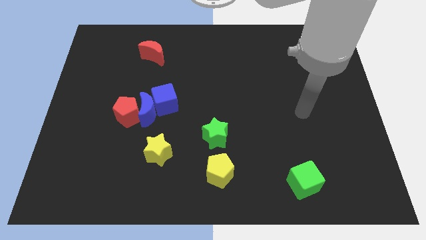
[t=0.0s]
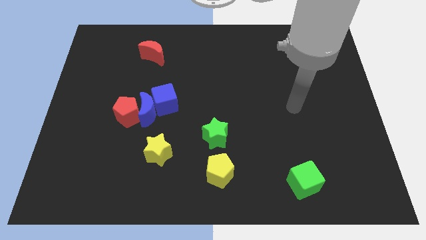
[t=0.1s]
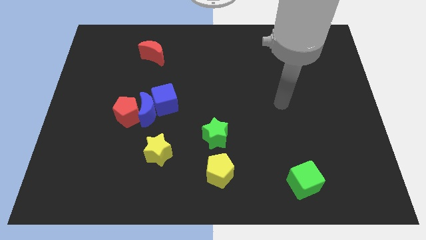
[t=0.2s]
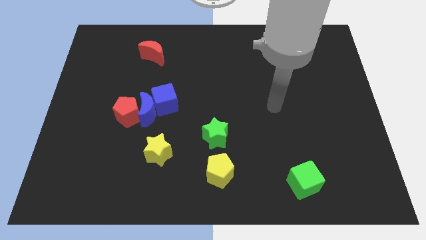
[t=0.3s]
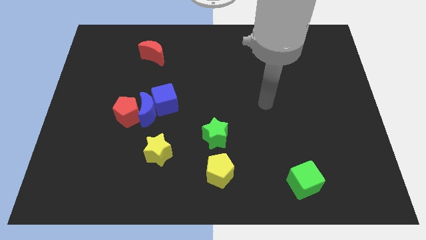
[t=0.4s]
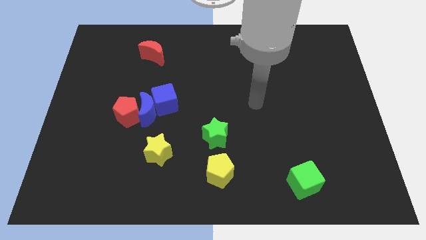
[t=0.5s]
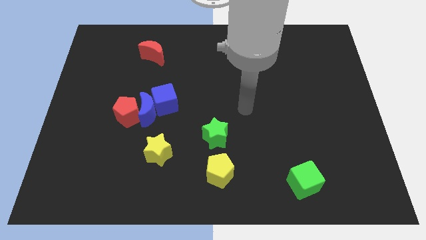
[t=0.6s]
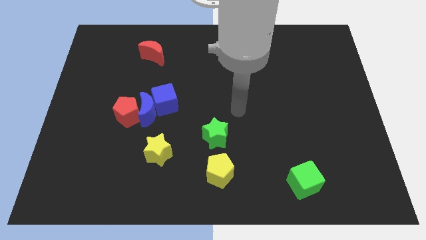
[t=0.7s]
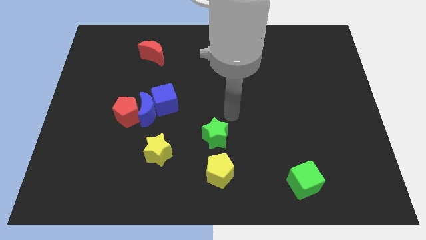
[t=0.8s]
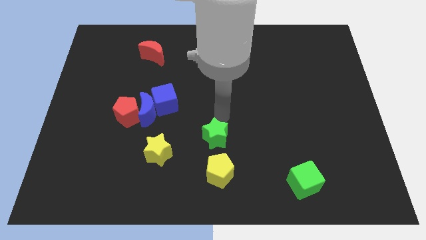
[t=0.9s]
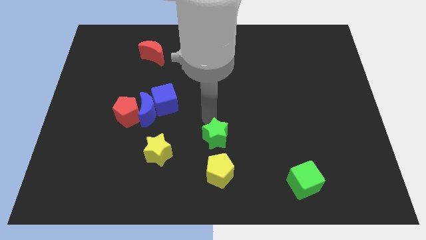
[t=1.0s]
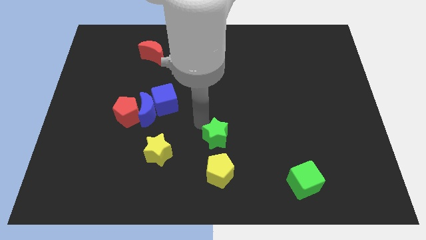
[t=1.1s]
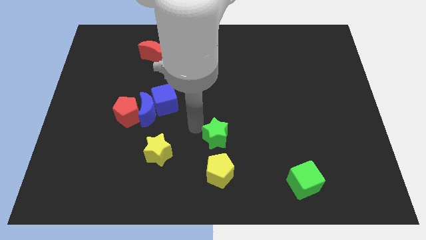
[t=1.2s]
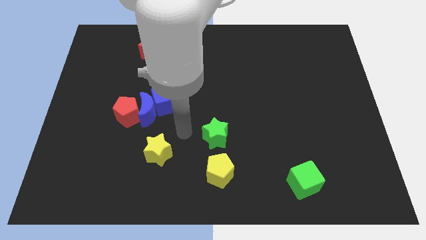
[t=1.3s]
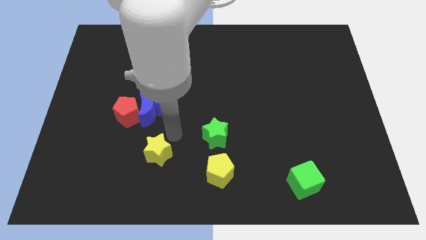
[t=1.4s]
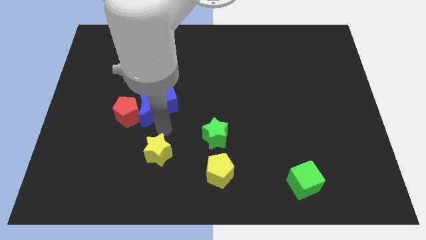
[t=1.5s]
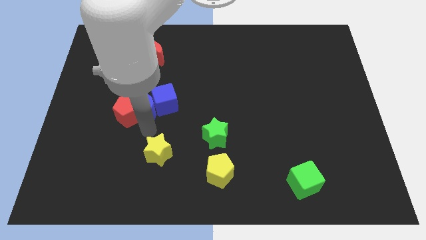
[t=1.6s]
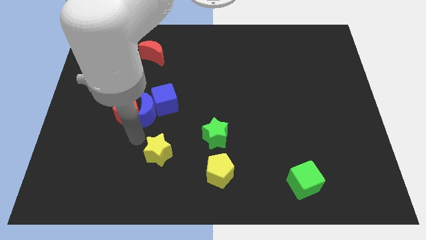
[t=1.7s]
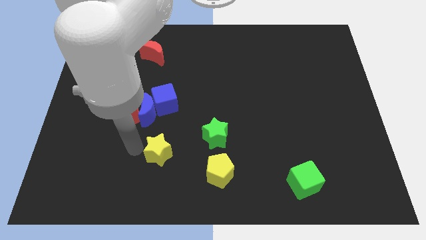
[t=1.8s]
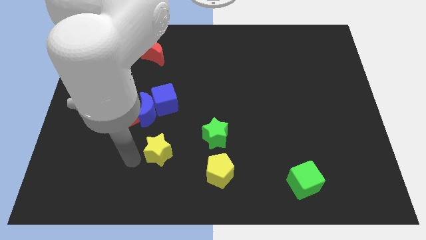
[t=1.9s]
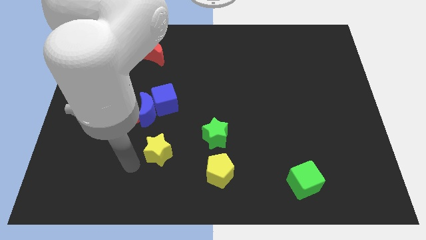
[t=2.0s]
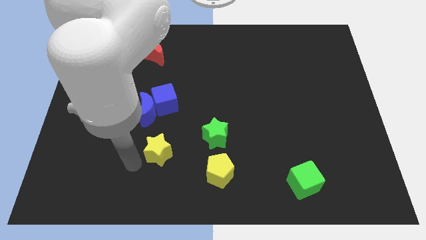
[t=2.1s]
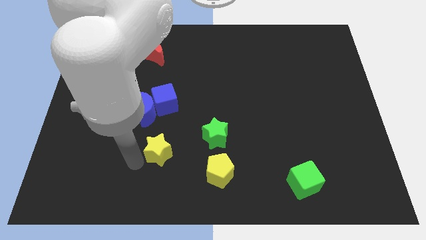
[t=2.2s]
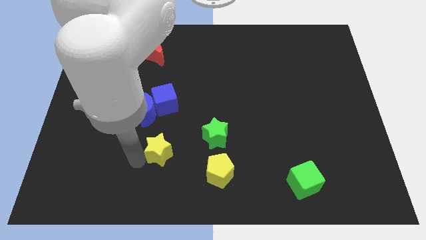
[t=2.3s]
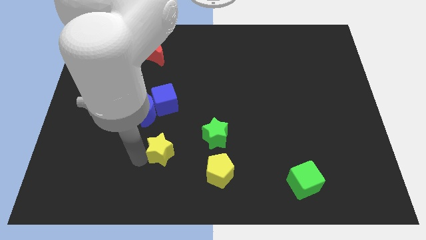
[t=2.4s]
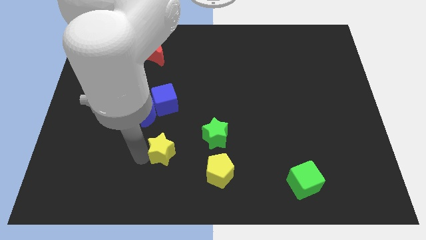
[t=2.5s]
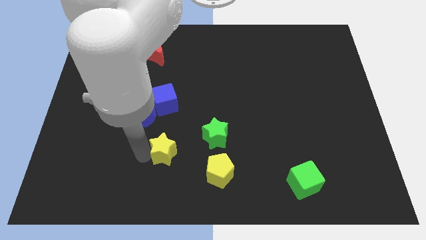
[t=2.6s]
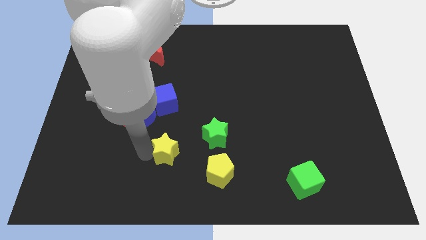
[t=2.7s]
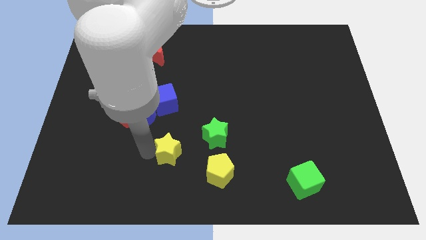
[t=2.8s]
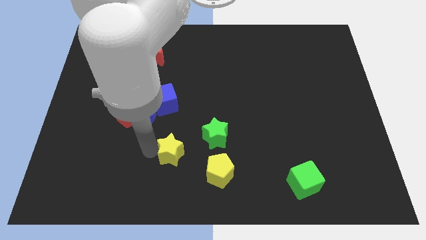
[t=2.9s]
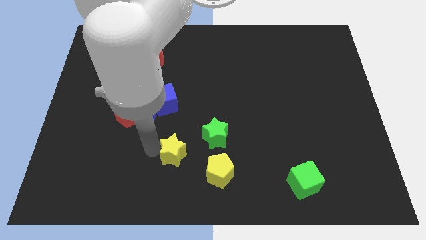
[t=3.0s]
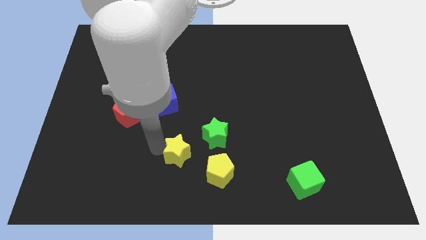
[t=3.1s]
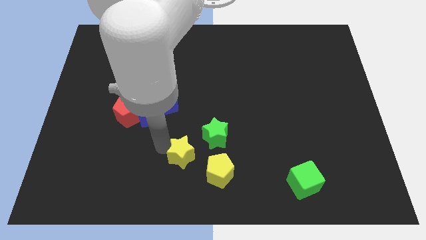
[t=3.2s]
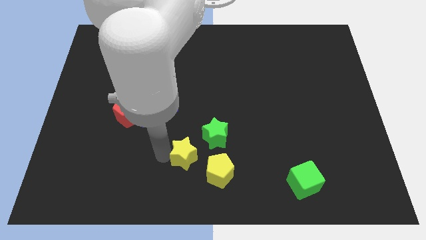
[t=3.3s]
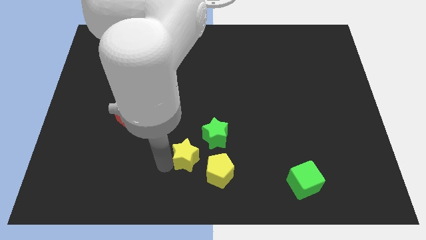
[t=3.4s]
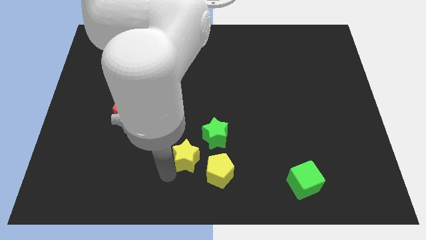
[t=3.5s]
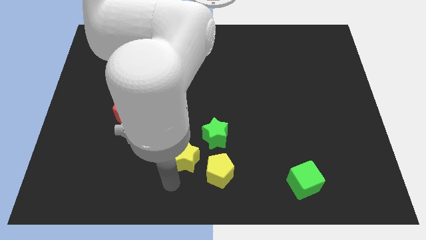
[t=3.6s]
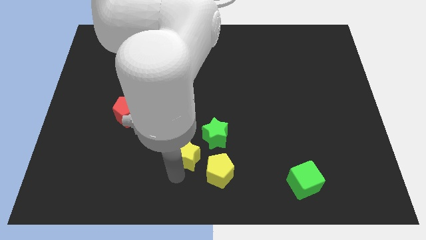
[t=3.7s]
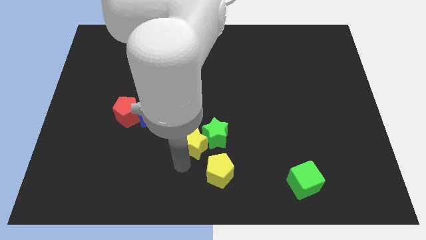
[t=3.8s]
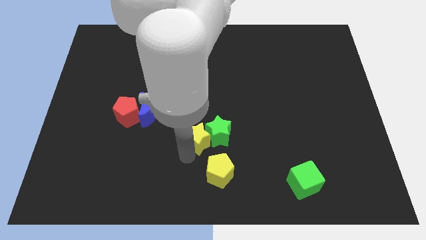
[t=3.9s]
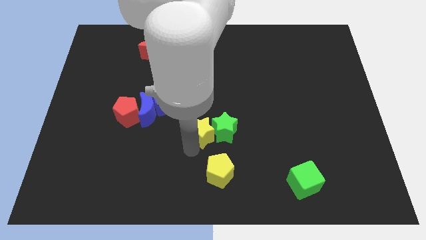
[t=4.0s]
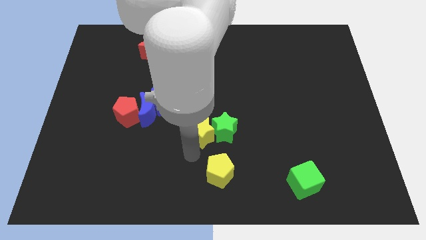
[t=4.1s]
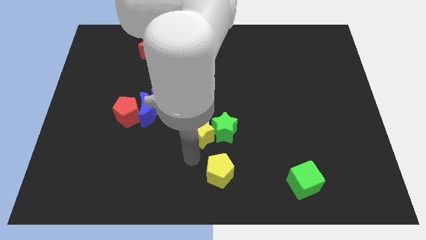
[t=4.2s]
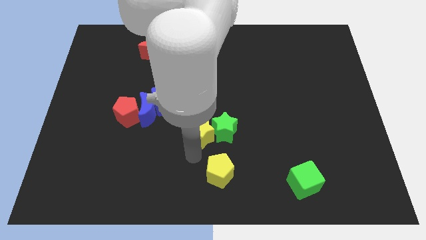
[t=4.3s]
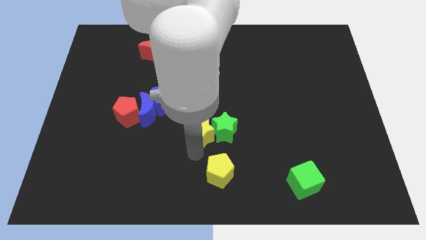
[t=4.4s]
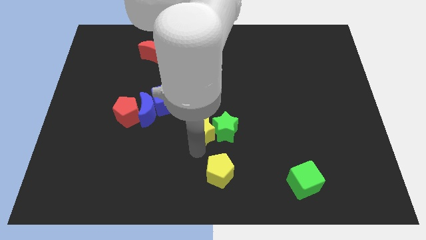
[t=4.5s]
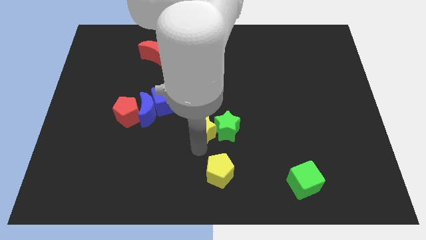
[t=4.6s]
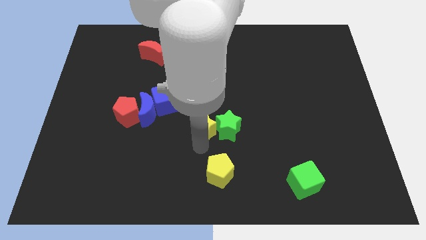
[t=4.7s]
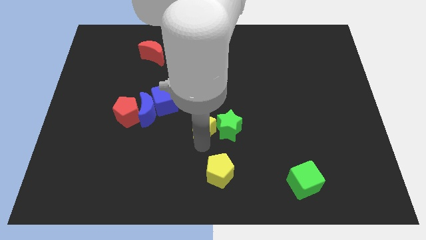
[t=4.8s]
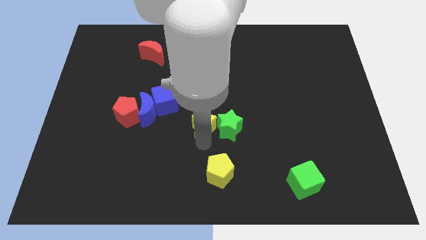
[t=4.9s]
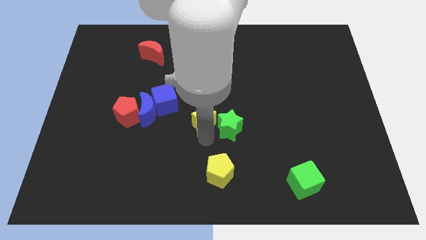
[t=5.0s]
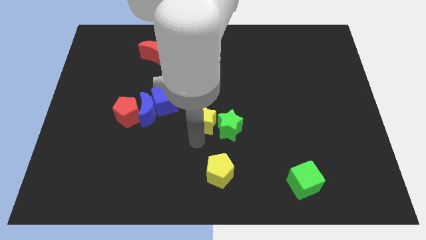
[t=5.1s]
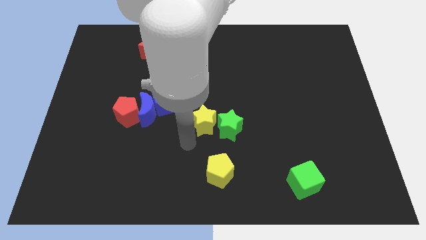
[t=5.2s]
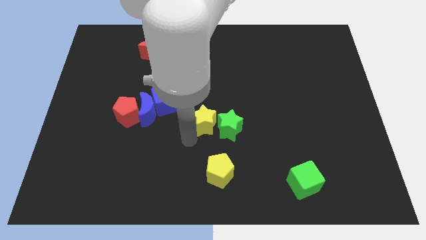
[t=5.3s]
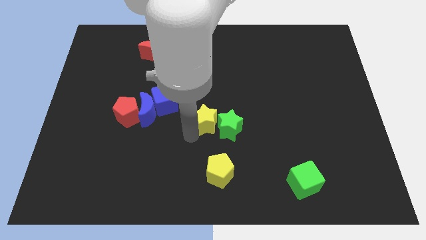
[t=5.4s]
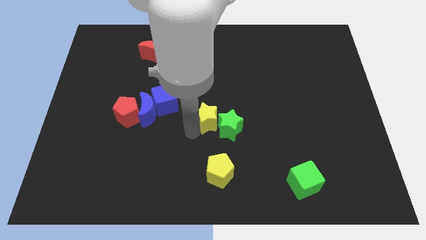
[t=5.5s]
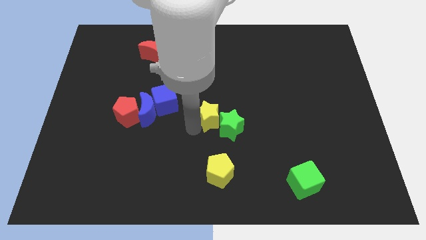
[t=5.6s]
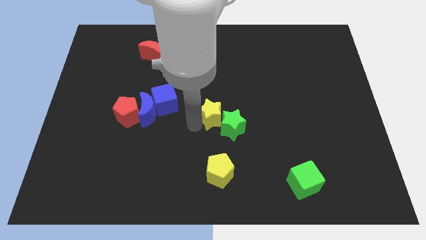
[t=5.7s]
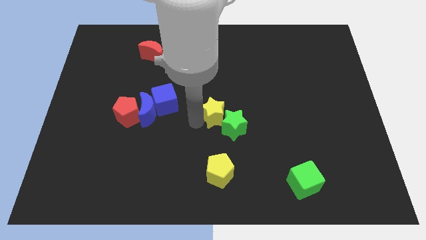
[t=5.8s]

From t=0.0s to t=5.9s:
put the yellow star to the top side of the green star

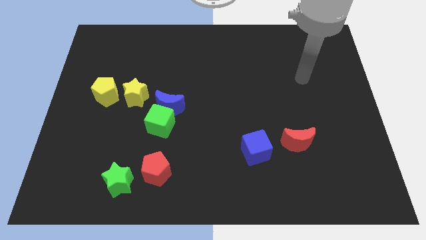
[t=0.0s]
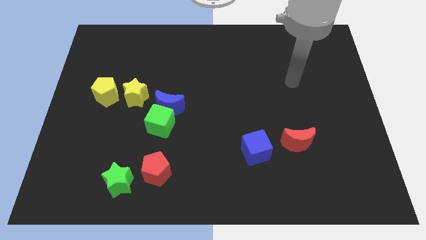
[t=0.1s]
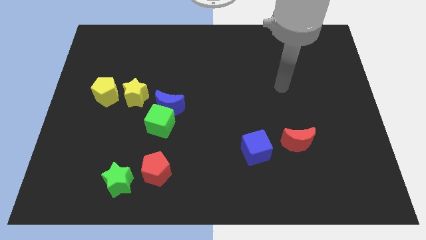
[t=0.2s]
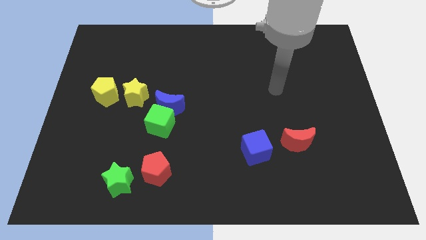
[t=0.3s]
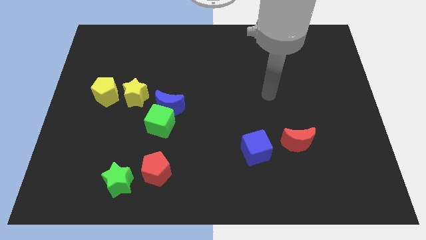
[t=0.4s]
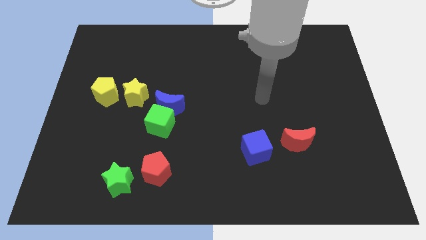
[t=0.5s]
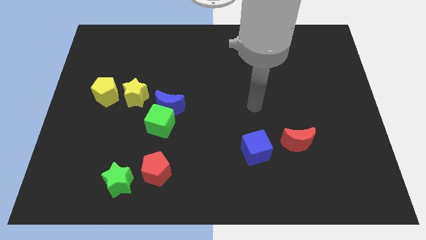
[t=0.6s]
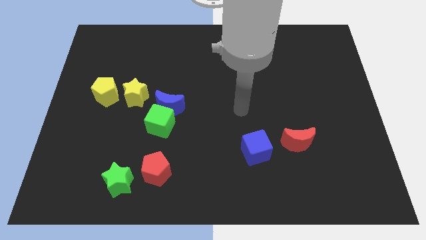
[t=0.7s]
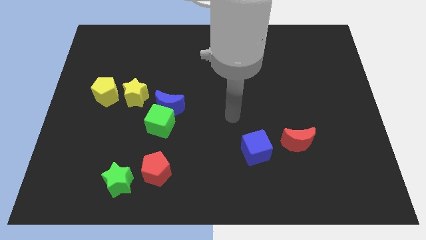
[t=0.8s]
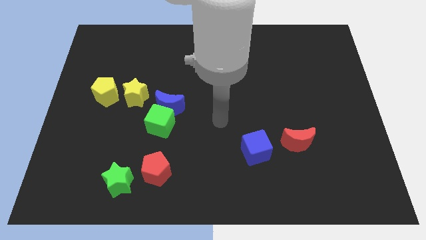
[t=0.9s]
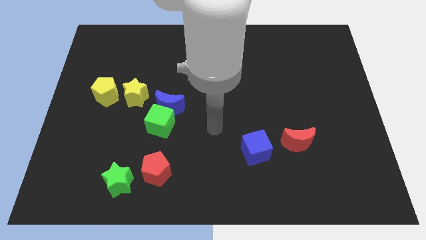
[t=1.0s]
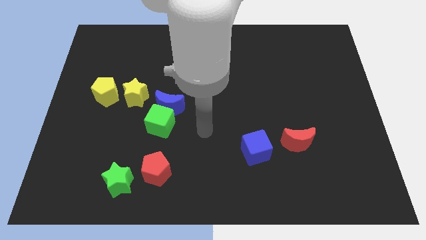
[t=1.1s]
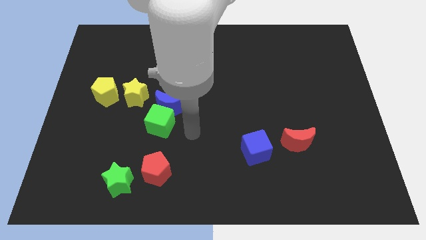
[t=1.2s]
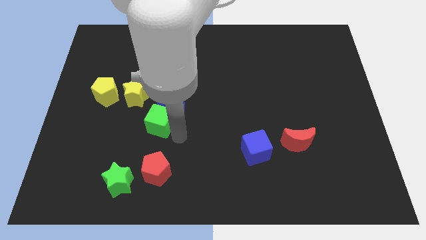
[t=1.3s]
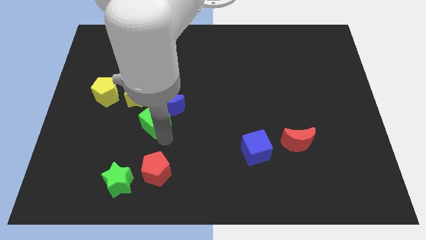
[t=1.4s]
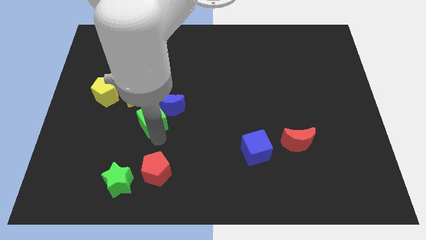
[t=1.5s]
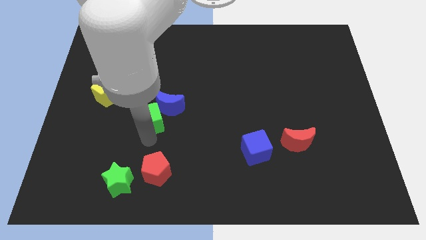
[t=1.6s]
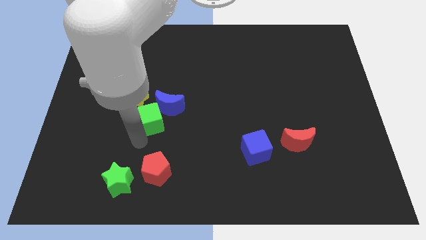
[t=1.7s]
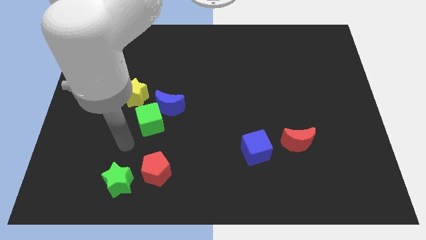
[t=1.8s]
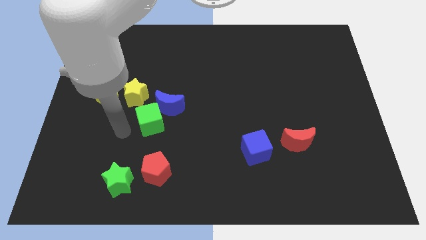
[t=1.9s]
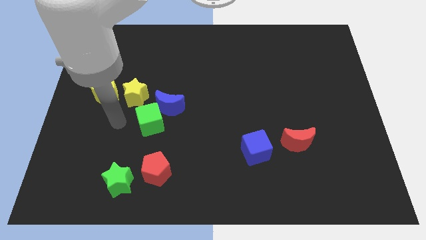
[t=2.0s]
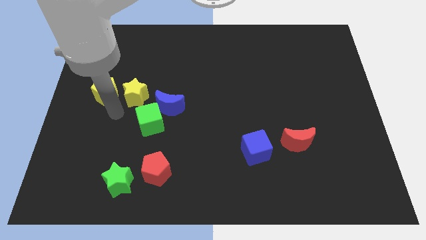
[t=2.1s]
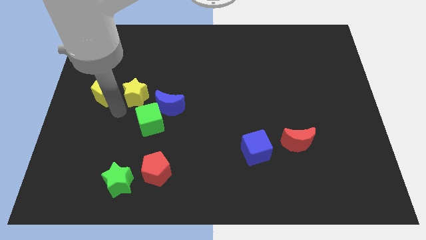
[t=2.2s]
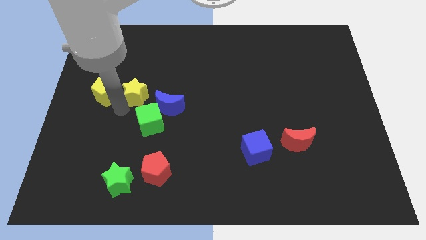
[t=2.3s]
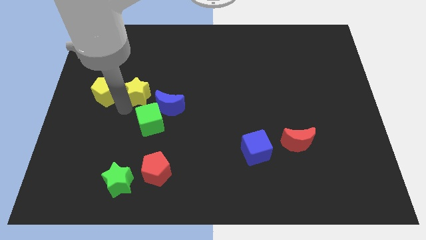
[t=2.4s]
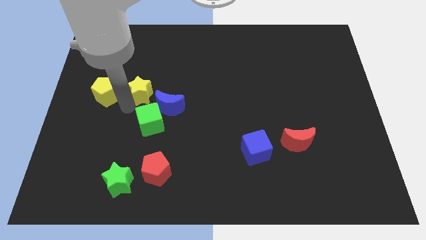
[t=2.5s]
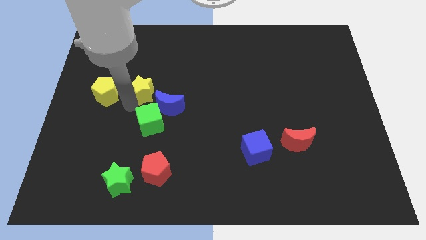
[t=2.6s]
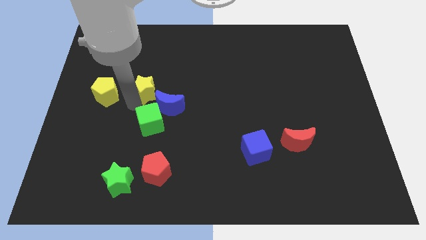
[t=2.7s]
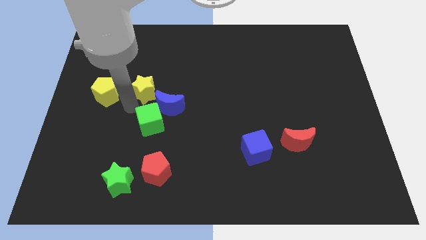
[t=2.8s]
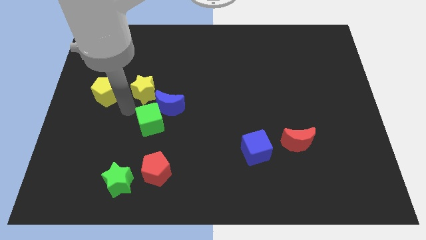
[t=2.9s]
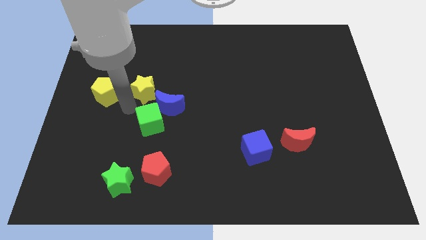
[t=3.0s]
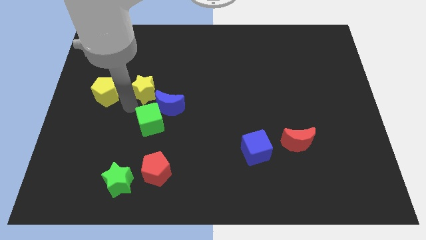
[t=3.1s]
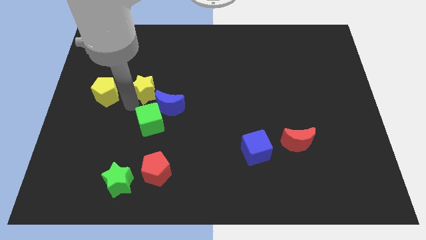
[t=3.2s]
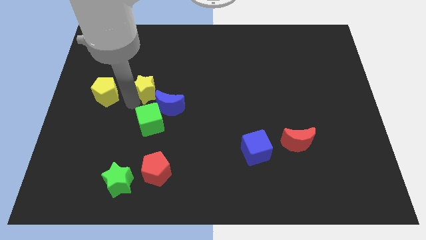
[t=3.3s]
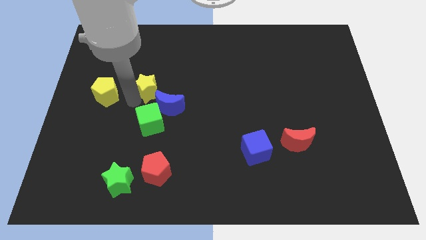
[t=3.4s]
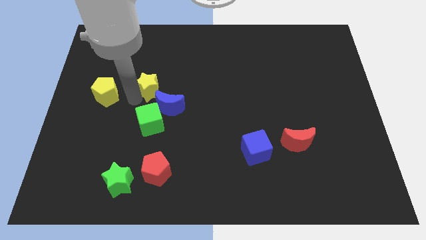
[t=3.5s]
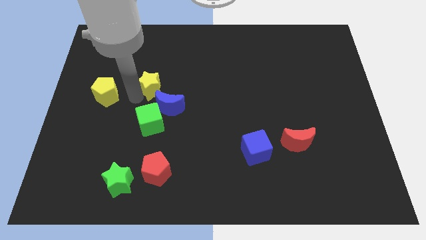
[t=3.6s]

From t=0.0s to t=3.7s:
put the yellow star to the top side of the blue moon
